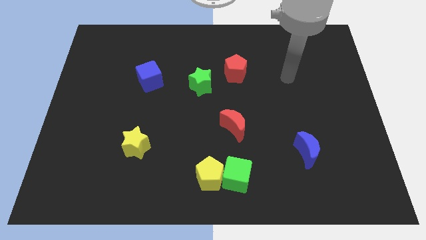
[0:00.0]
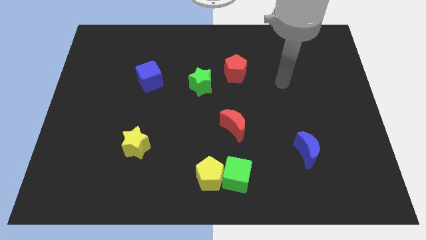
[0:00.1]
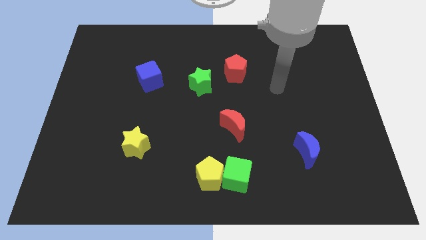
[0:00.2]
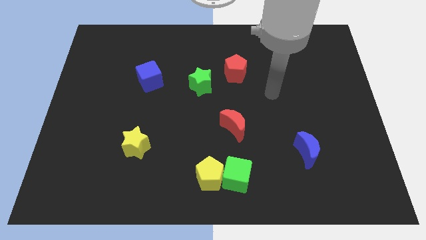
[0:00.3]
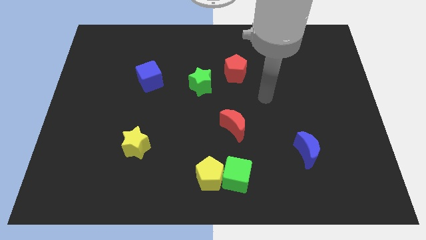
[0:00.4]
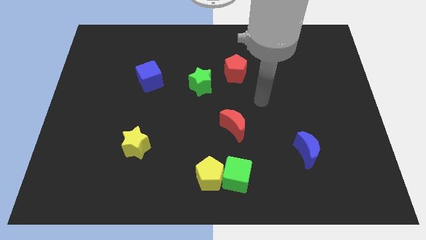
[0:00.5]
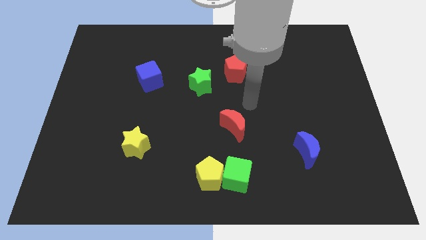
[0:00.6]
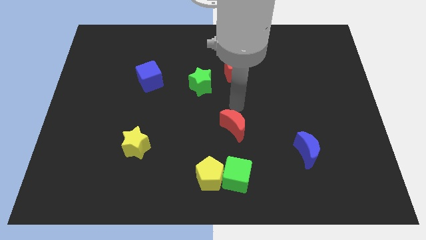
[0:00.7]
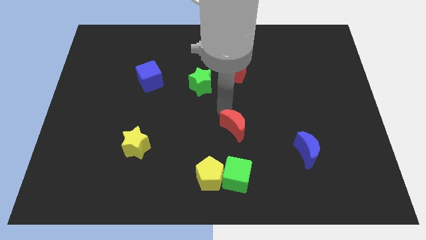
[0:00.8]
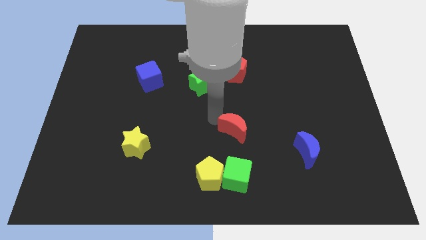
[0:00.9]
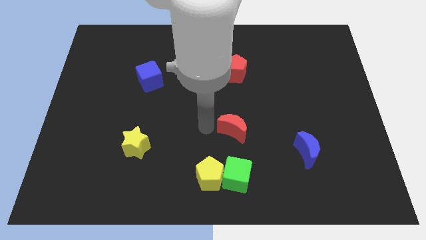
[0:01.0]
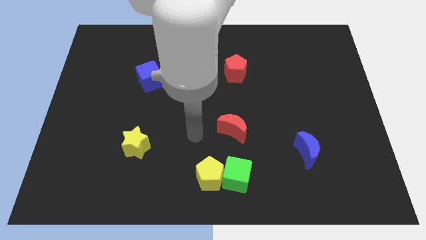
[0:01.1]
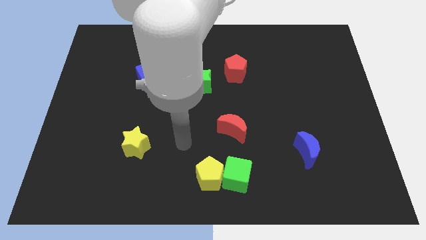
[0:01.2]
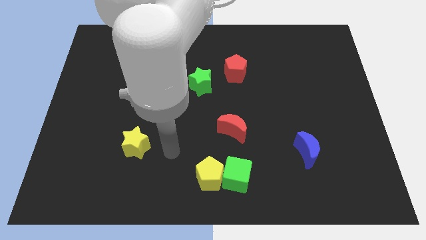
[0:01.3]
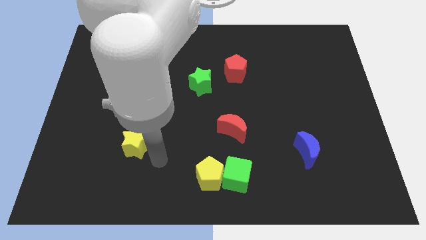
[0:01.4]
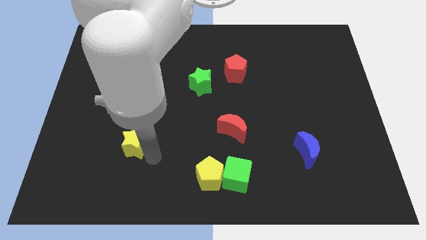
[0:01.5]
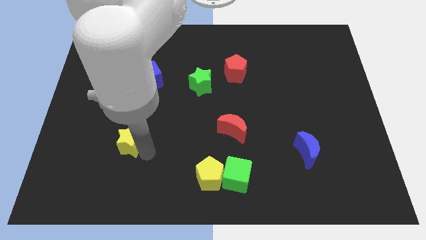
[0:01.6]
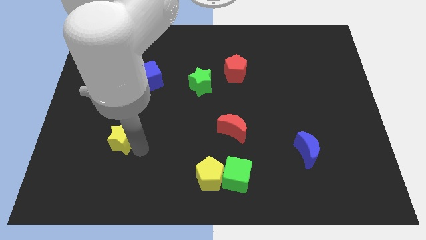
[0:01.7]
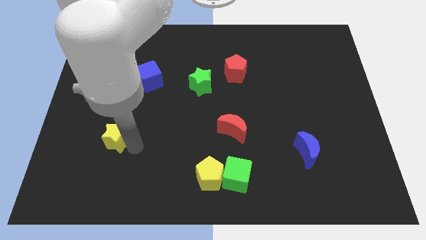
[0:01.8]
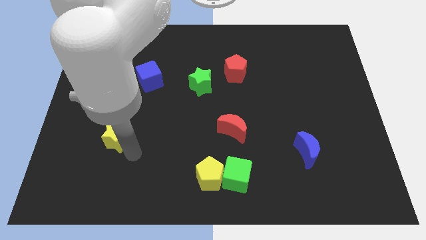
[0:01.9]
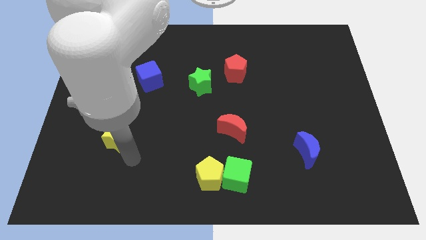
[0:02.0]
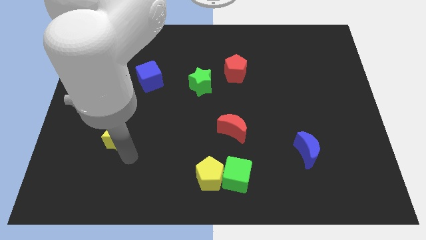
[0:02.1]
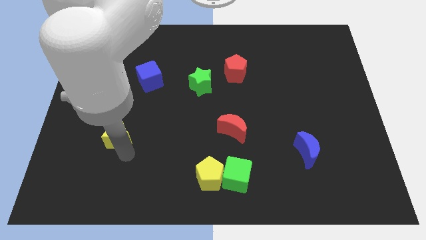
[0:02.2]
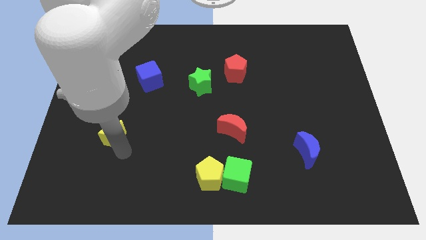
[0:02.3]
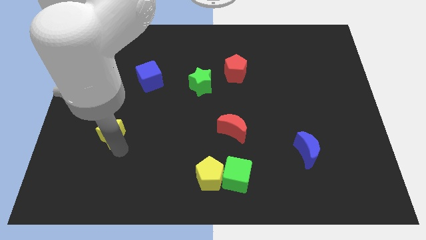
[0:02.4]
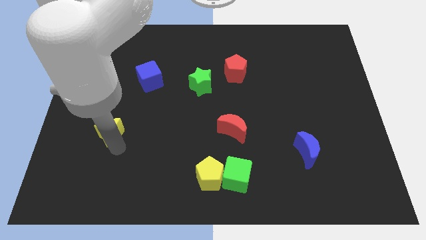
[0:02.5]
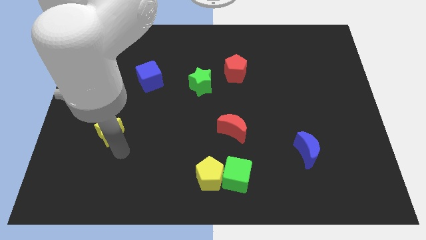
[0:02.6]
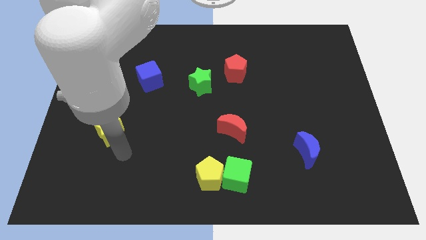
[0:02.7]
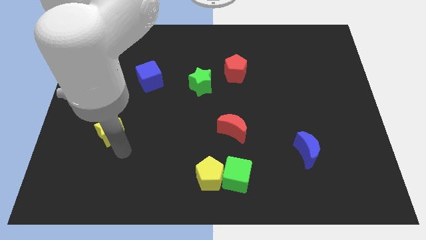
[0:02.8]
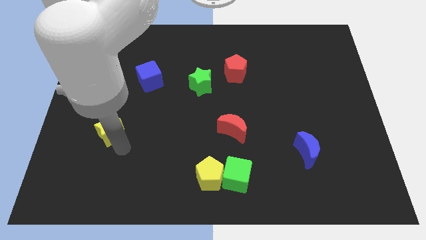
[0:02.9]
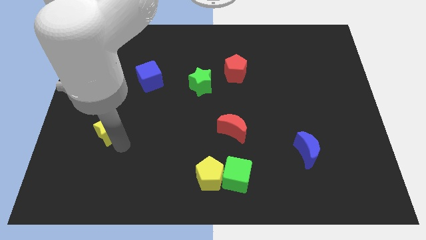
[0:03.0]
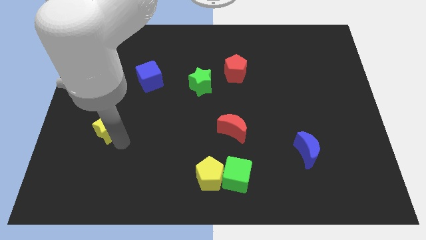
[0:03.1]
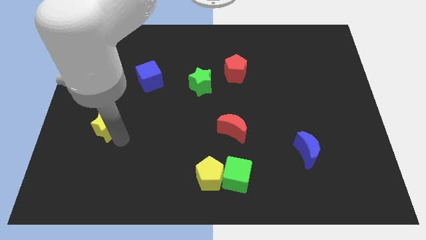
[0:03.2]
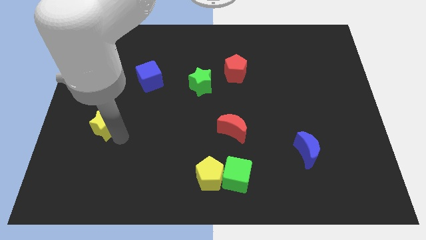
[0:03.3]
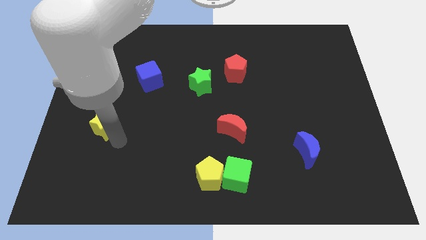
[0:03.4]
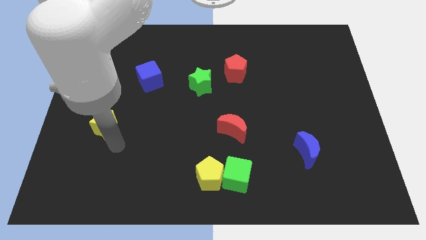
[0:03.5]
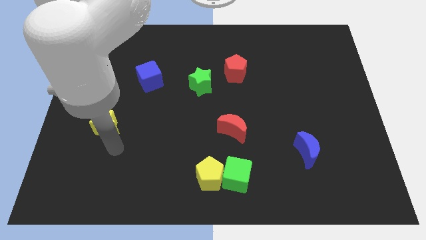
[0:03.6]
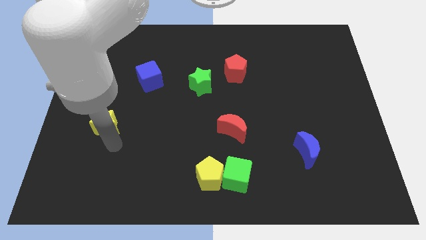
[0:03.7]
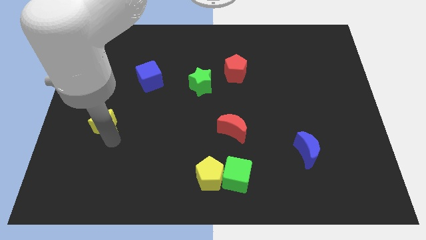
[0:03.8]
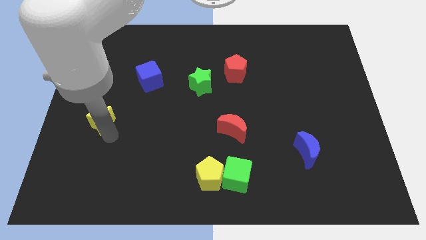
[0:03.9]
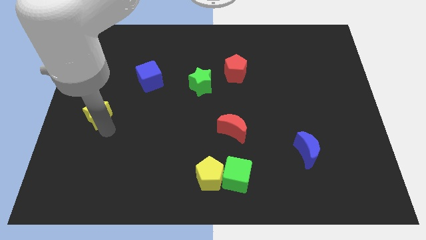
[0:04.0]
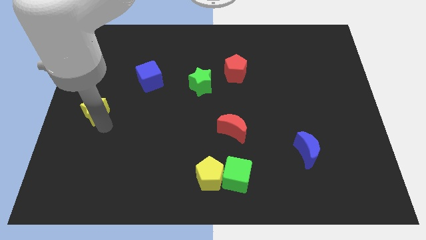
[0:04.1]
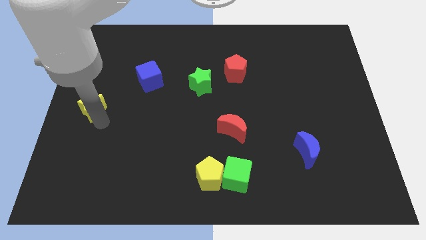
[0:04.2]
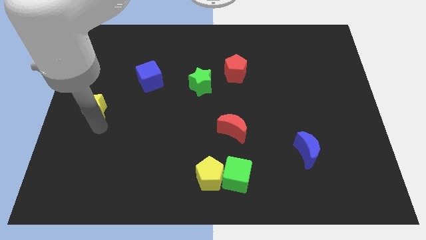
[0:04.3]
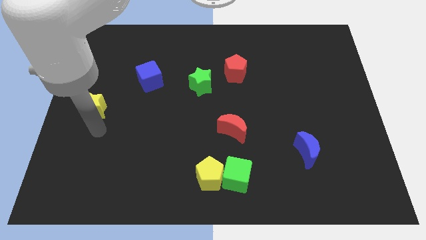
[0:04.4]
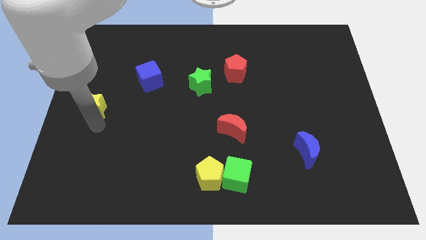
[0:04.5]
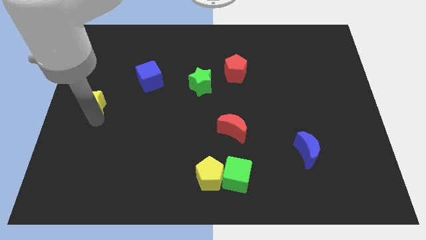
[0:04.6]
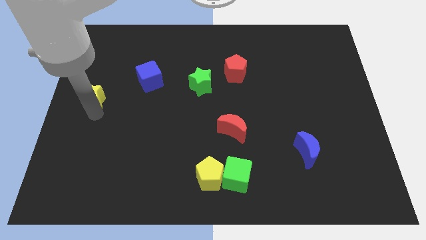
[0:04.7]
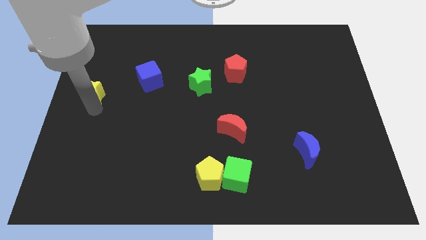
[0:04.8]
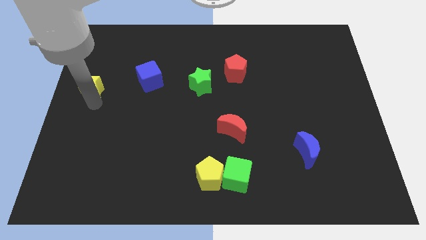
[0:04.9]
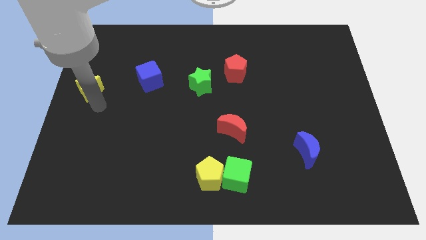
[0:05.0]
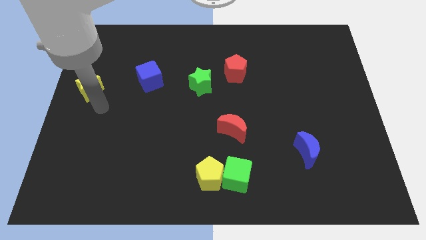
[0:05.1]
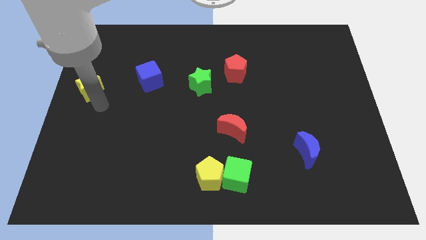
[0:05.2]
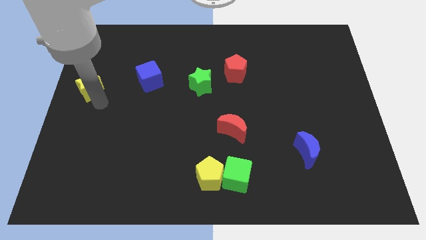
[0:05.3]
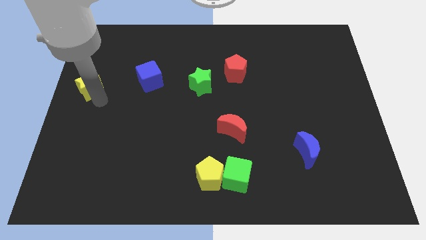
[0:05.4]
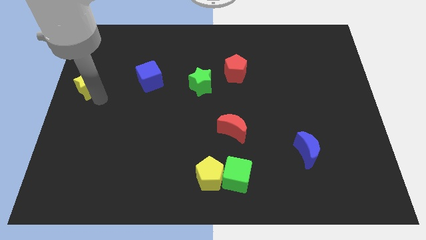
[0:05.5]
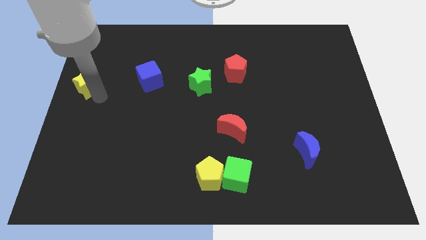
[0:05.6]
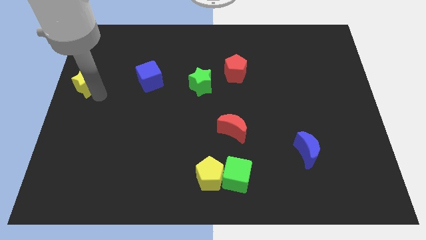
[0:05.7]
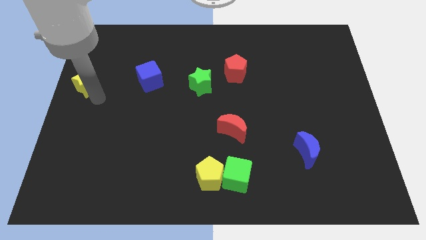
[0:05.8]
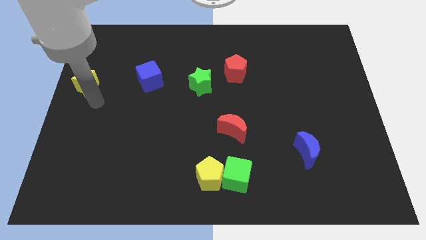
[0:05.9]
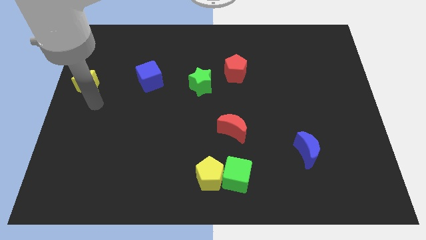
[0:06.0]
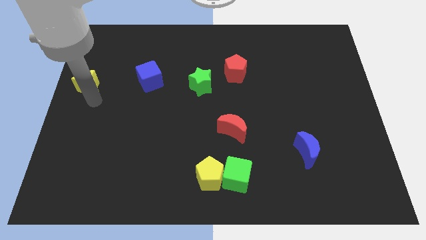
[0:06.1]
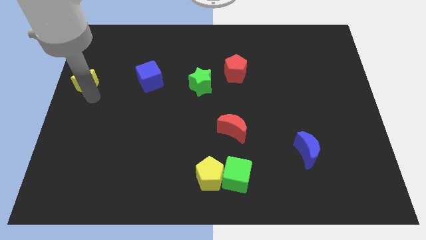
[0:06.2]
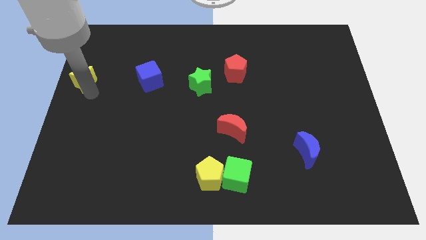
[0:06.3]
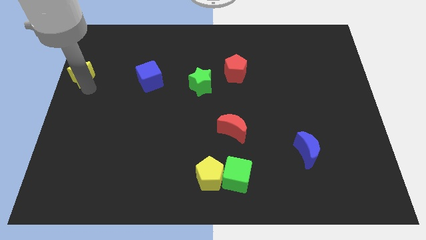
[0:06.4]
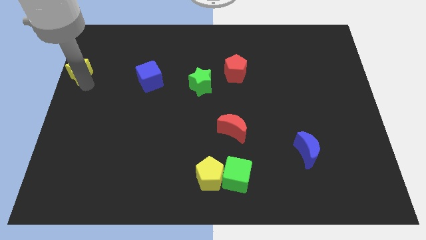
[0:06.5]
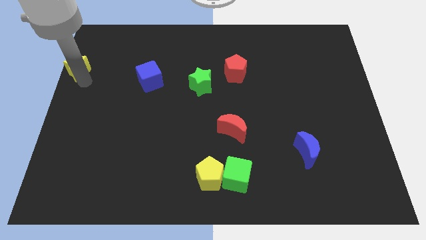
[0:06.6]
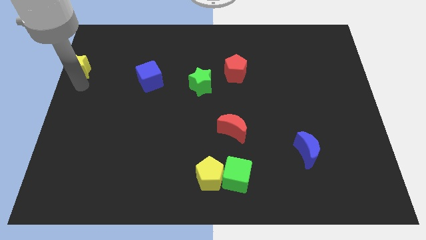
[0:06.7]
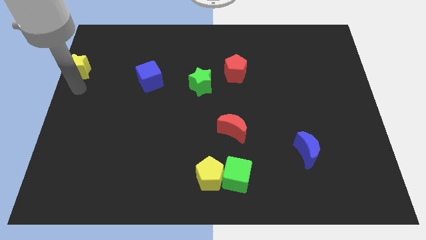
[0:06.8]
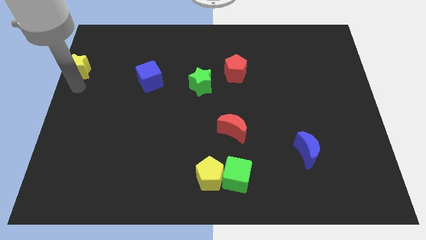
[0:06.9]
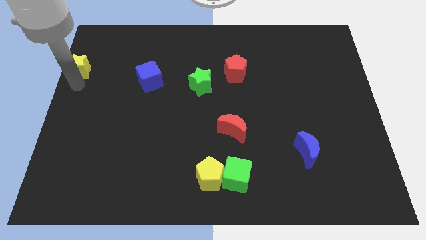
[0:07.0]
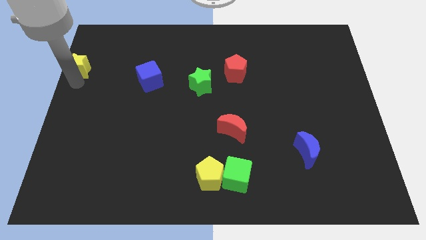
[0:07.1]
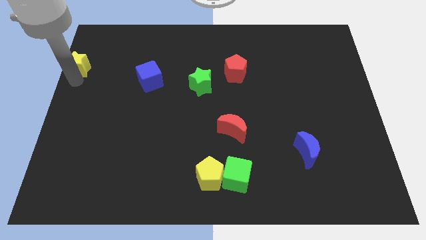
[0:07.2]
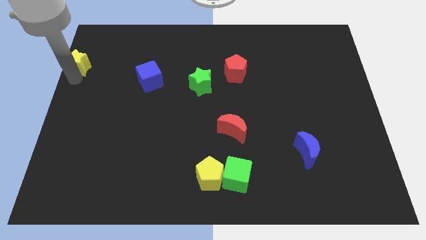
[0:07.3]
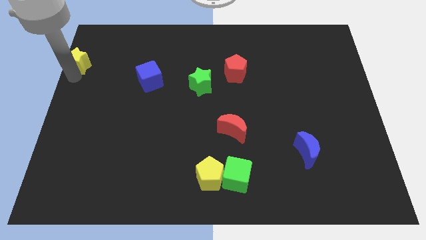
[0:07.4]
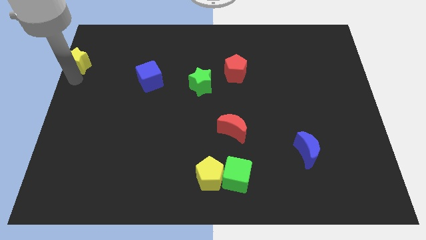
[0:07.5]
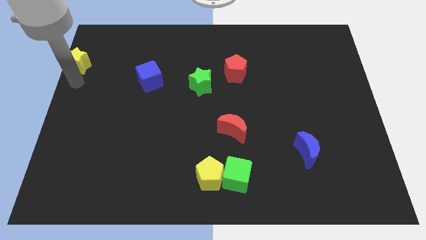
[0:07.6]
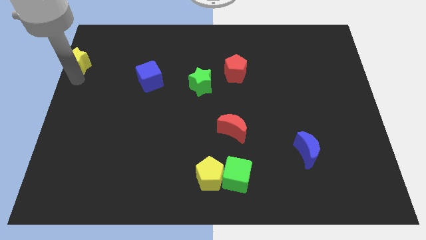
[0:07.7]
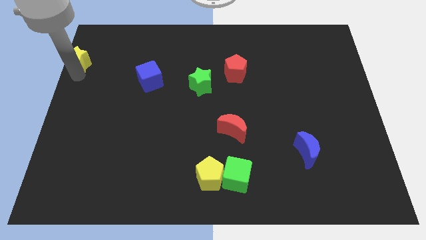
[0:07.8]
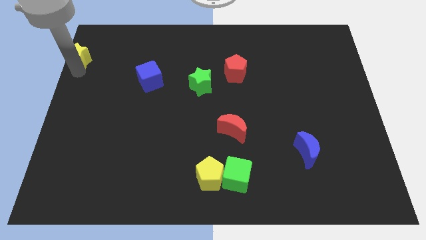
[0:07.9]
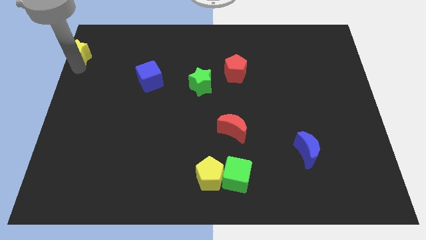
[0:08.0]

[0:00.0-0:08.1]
slide the yellow star to the upper left corner
